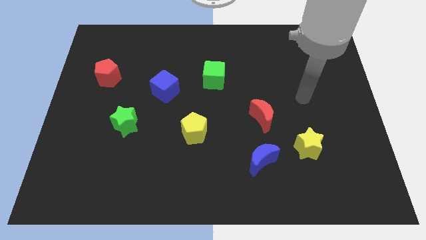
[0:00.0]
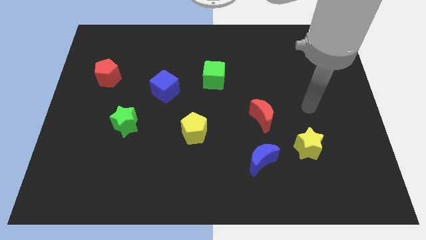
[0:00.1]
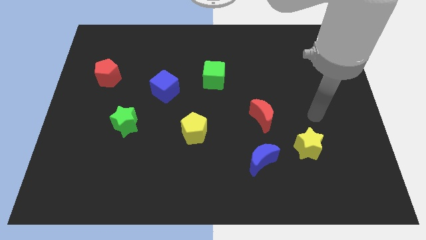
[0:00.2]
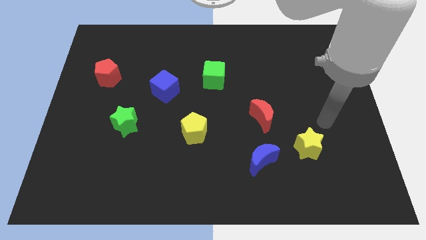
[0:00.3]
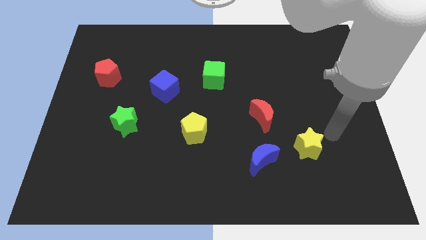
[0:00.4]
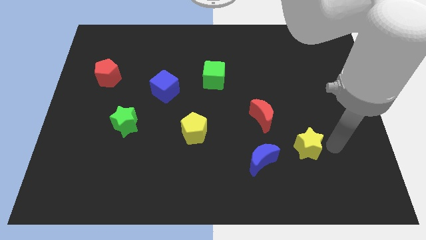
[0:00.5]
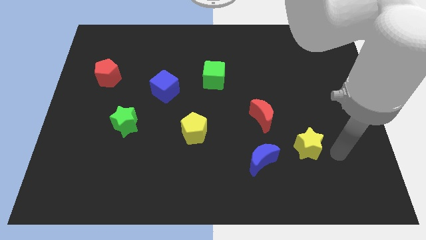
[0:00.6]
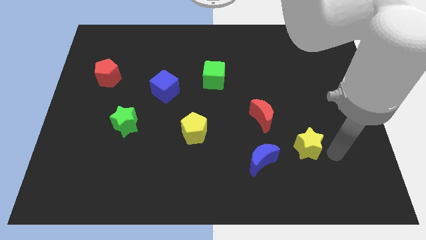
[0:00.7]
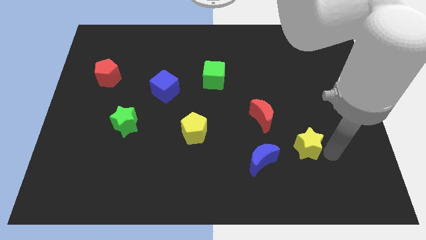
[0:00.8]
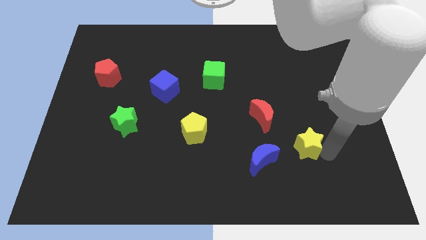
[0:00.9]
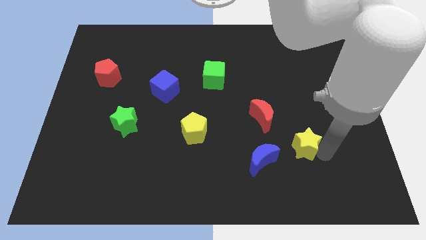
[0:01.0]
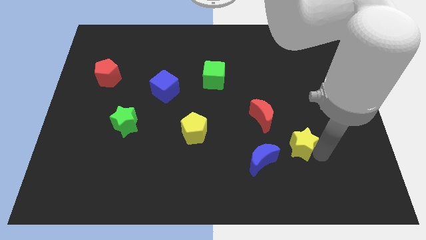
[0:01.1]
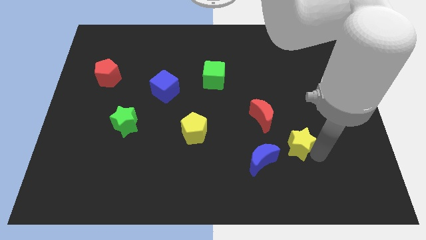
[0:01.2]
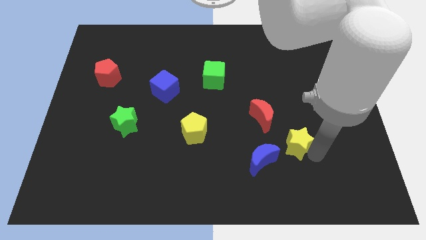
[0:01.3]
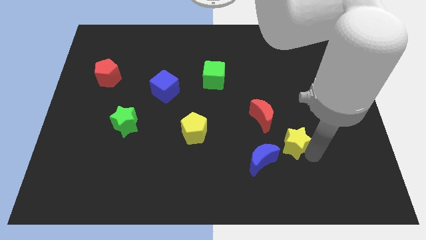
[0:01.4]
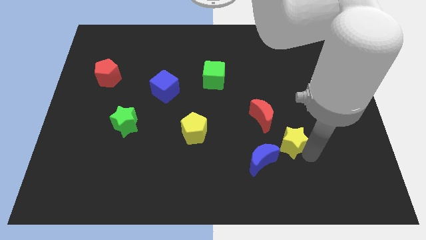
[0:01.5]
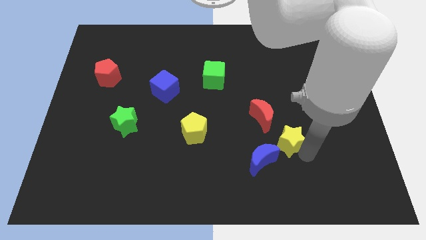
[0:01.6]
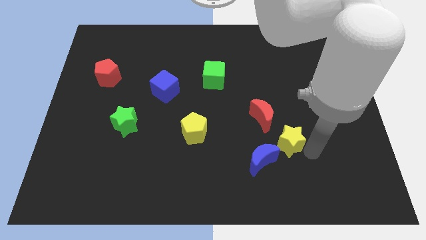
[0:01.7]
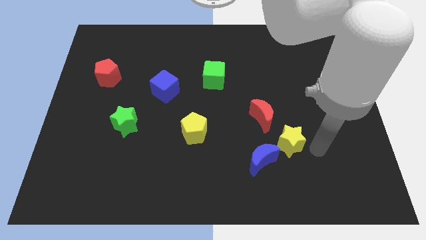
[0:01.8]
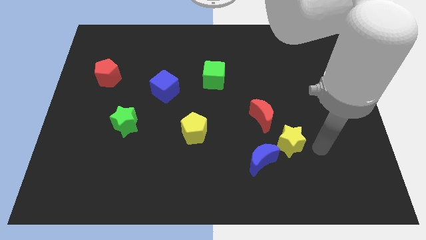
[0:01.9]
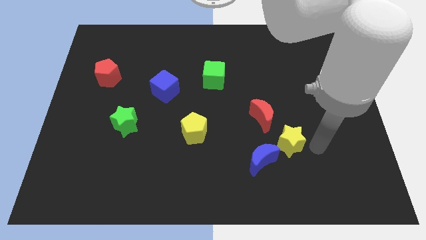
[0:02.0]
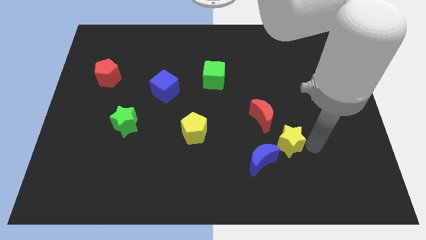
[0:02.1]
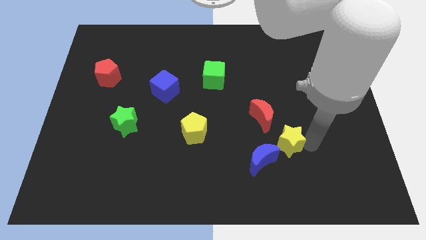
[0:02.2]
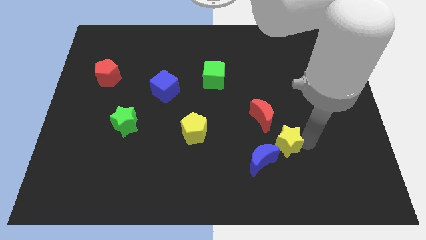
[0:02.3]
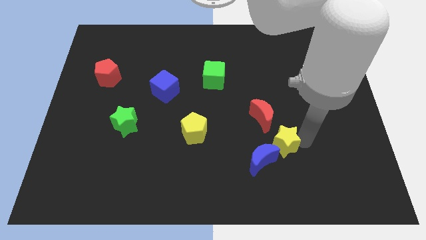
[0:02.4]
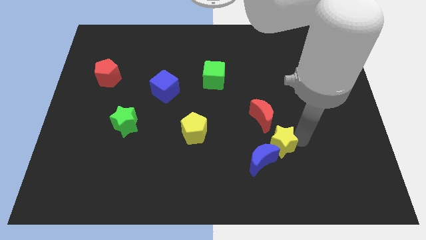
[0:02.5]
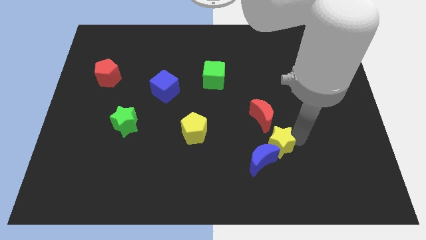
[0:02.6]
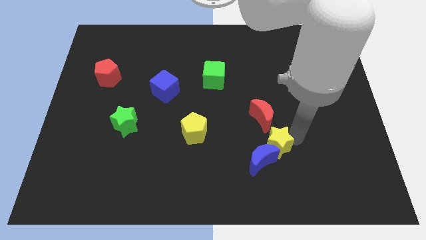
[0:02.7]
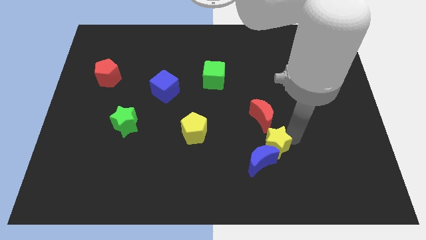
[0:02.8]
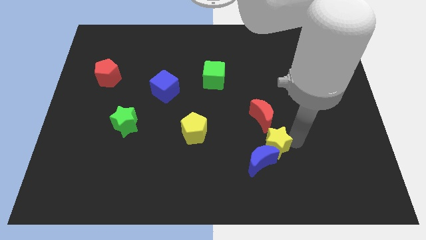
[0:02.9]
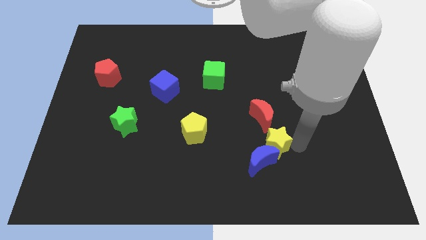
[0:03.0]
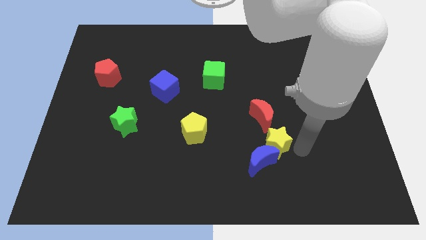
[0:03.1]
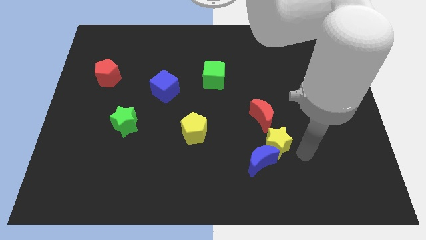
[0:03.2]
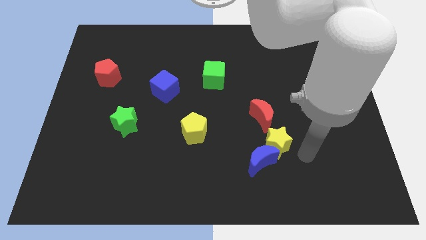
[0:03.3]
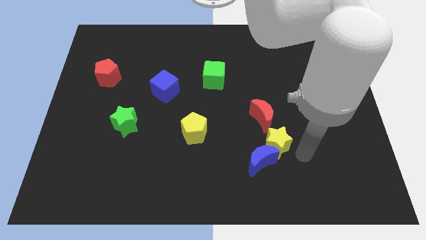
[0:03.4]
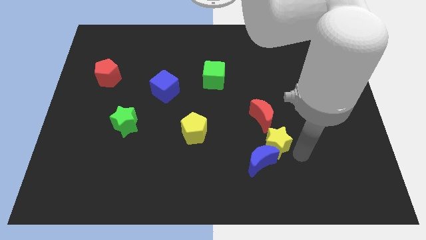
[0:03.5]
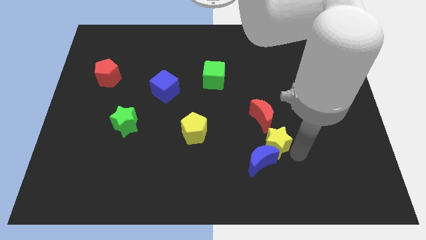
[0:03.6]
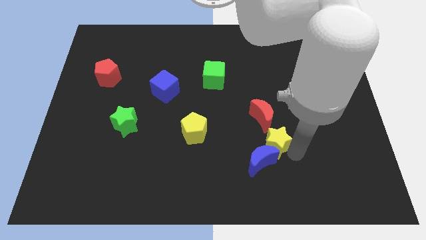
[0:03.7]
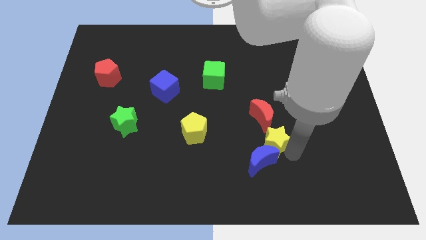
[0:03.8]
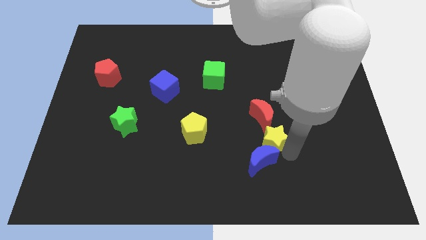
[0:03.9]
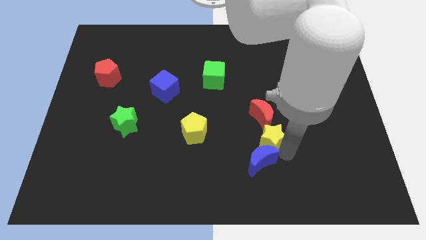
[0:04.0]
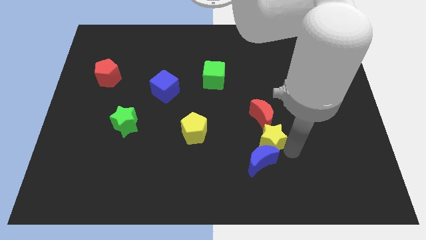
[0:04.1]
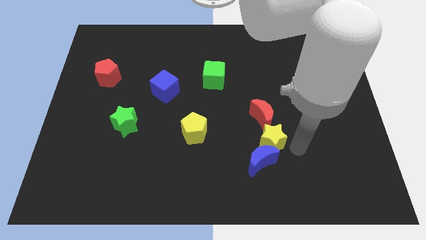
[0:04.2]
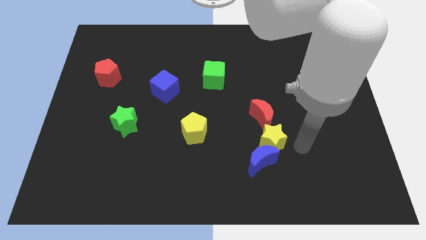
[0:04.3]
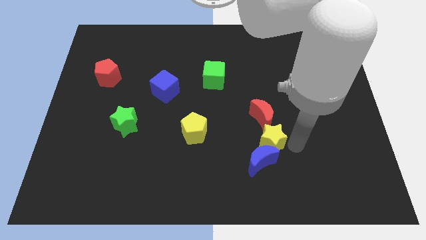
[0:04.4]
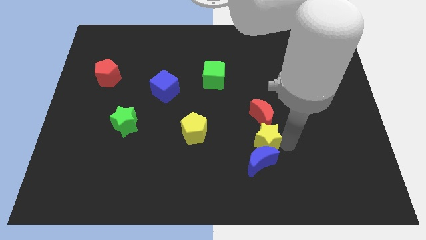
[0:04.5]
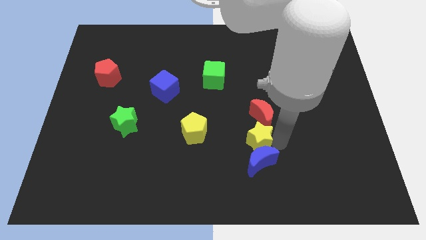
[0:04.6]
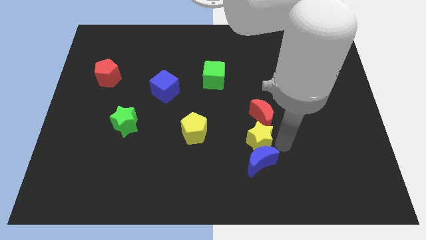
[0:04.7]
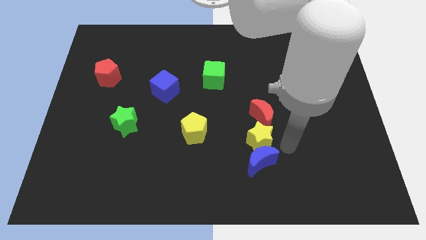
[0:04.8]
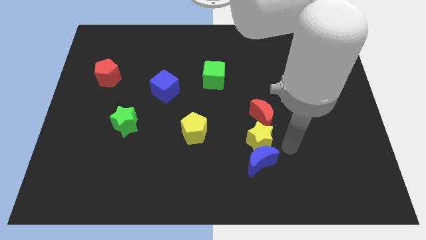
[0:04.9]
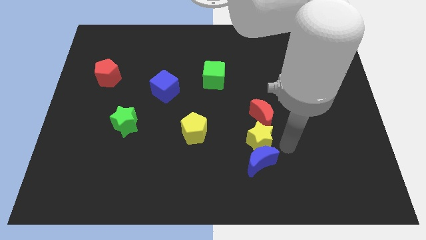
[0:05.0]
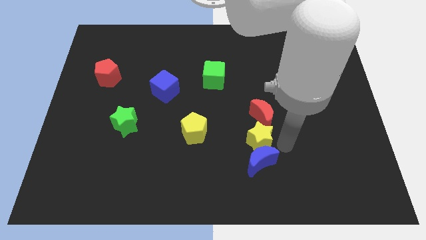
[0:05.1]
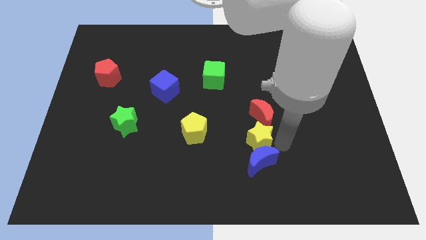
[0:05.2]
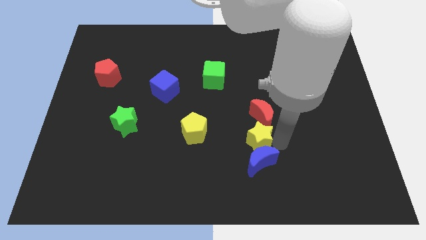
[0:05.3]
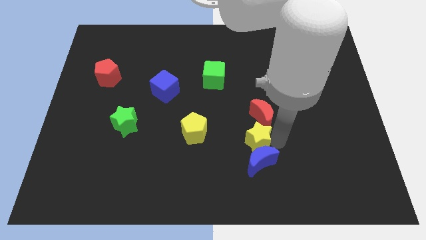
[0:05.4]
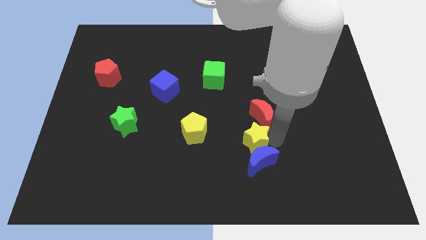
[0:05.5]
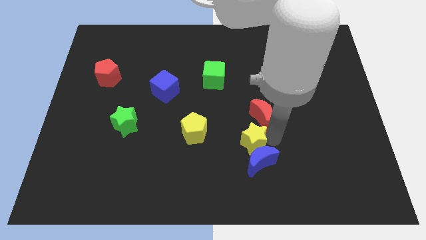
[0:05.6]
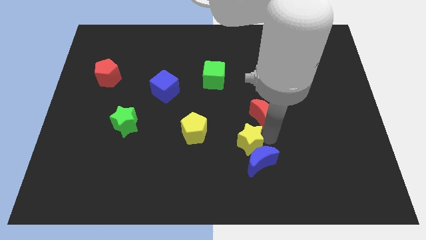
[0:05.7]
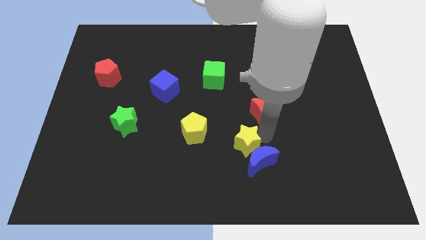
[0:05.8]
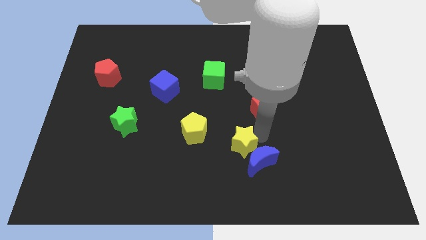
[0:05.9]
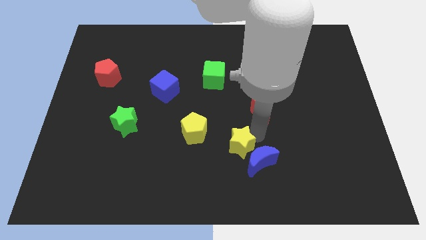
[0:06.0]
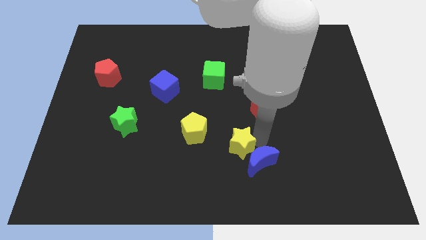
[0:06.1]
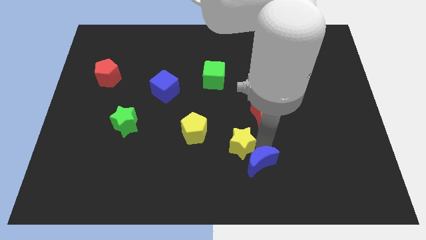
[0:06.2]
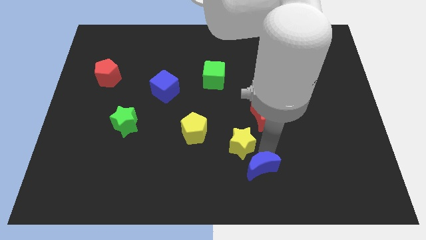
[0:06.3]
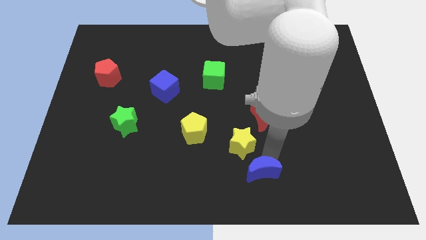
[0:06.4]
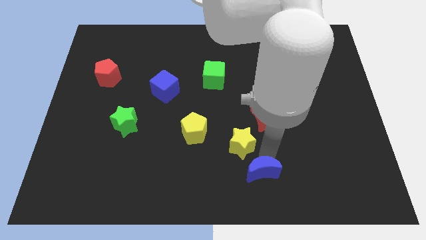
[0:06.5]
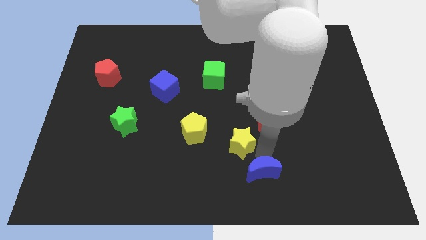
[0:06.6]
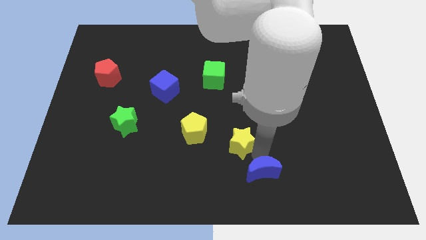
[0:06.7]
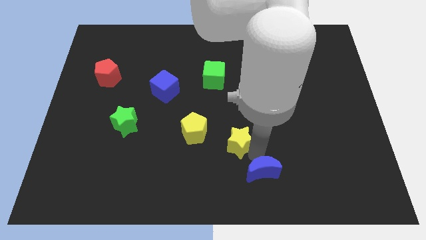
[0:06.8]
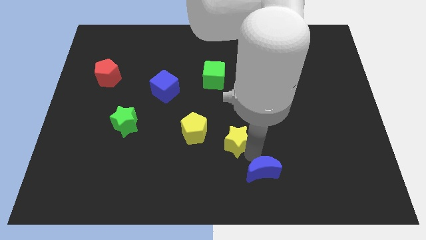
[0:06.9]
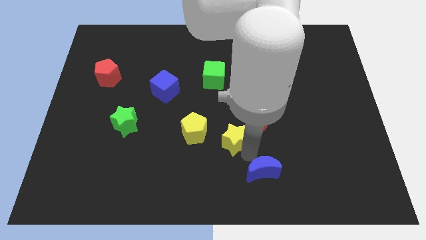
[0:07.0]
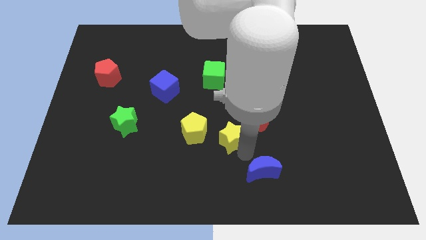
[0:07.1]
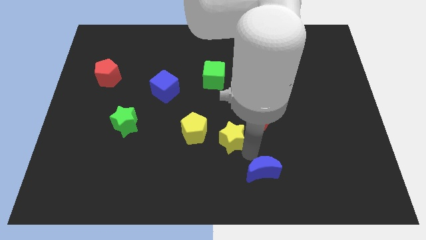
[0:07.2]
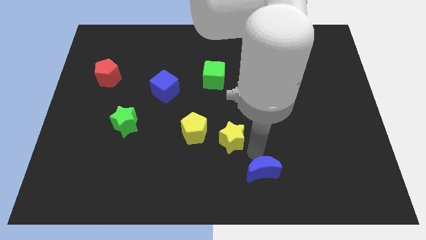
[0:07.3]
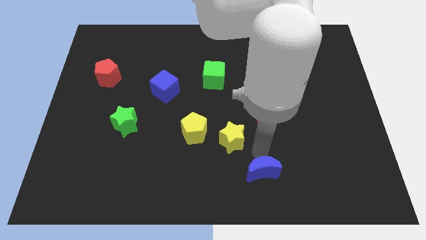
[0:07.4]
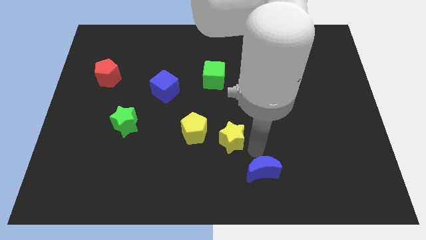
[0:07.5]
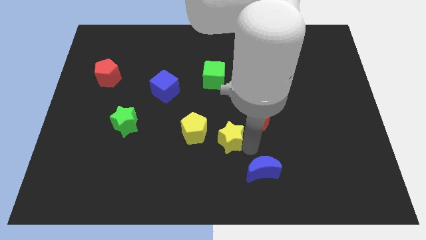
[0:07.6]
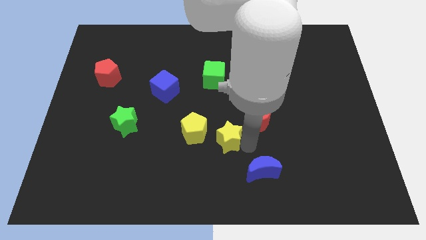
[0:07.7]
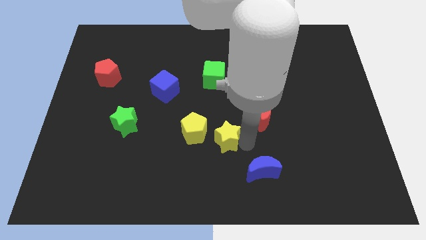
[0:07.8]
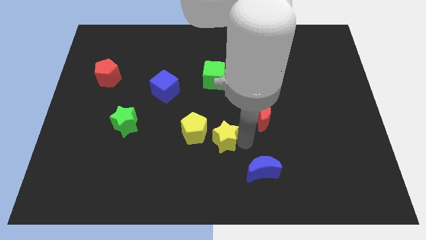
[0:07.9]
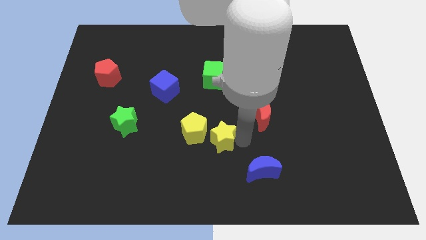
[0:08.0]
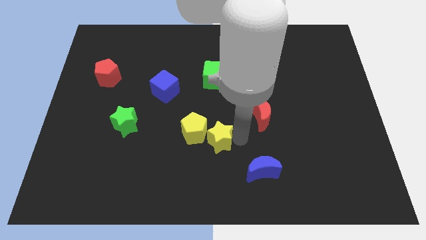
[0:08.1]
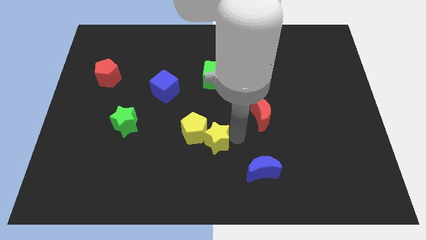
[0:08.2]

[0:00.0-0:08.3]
push the yellow star close to the yellow pentagon
